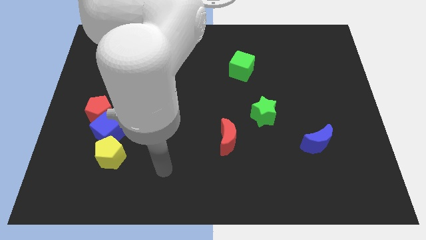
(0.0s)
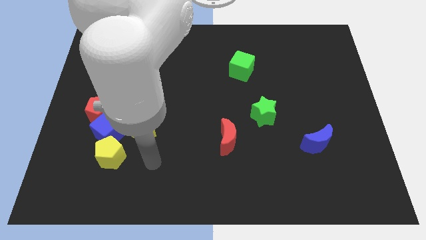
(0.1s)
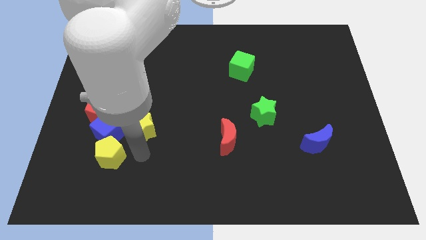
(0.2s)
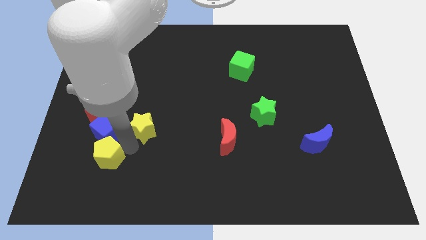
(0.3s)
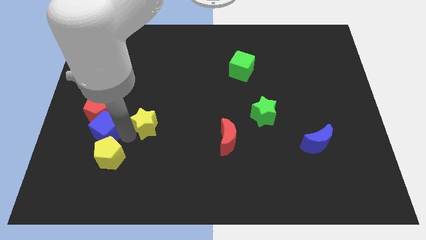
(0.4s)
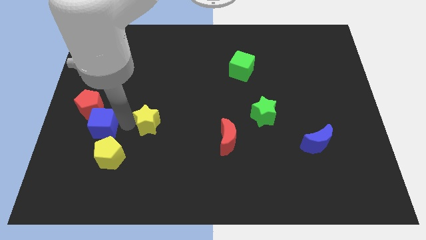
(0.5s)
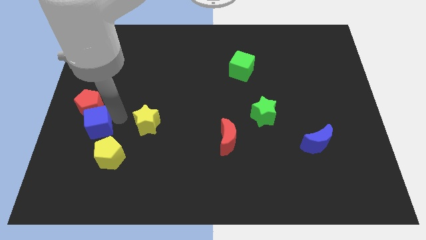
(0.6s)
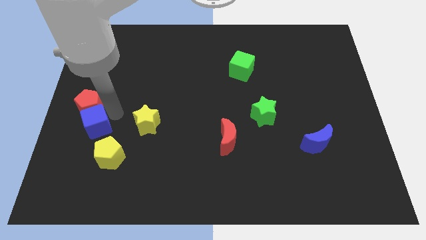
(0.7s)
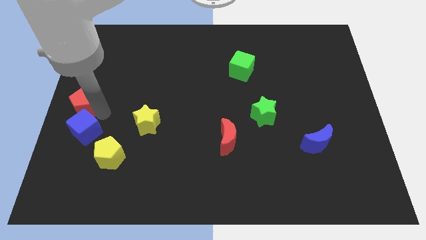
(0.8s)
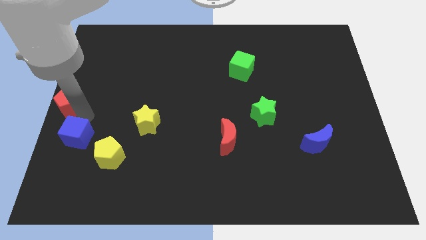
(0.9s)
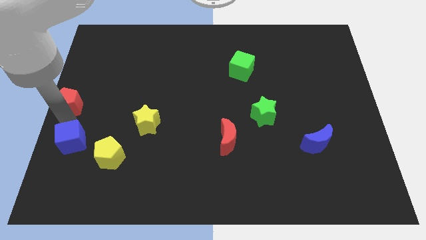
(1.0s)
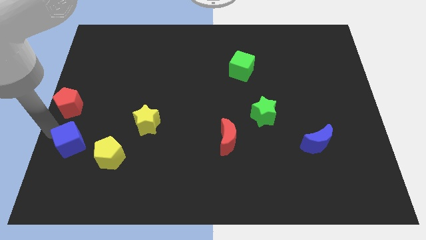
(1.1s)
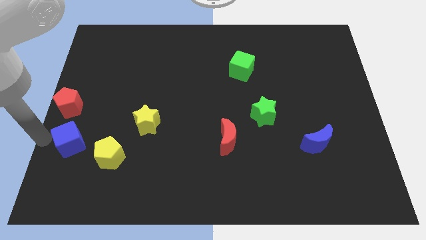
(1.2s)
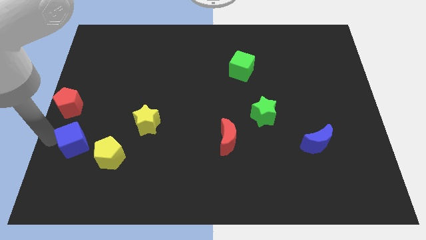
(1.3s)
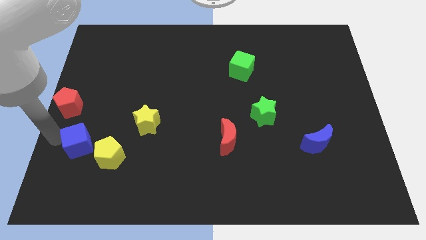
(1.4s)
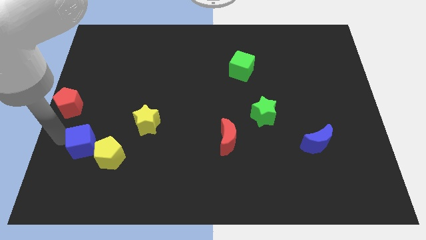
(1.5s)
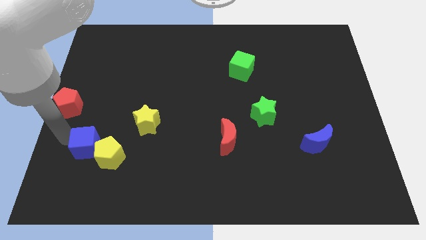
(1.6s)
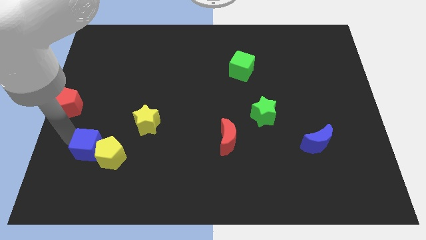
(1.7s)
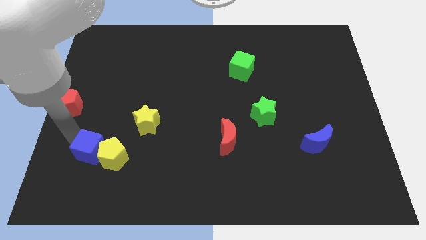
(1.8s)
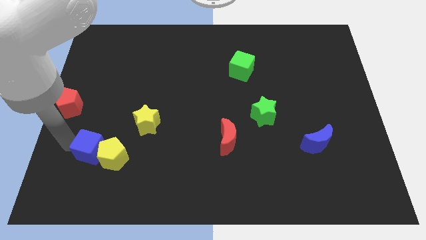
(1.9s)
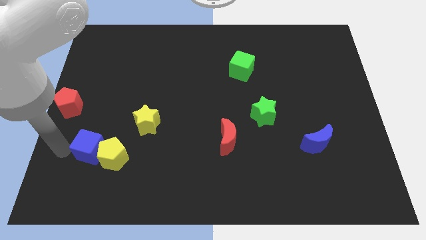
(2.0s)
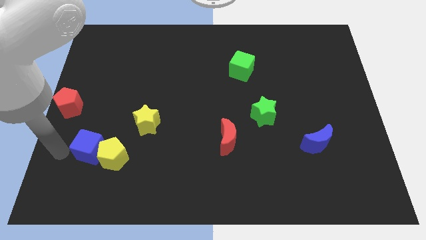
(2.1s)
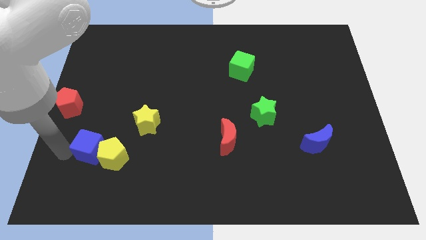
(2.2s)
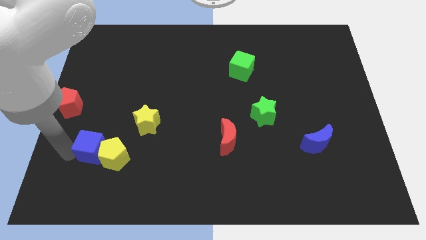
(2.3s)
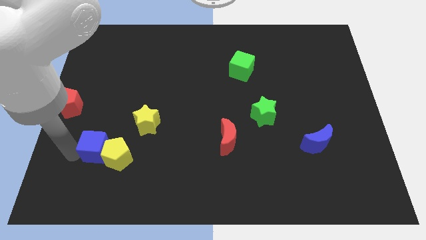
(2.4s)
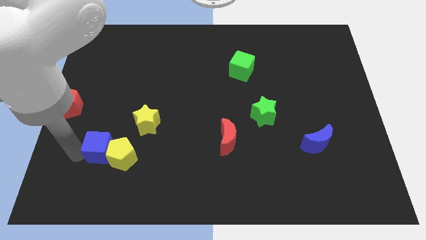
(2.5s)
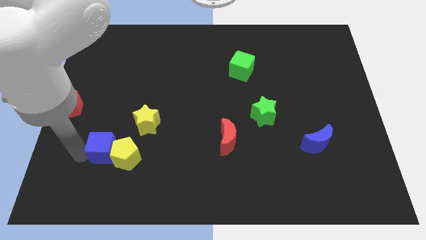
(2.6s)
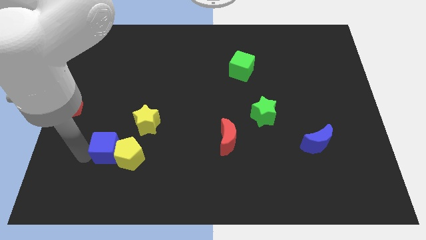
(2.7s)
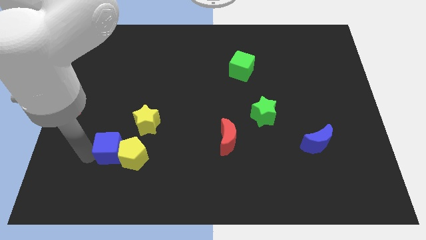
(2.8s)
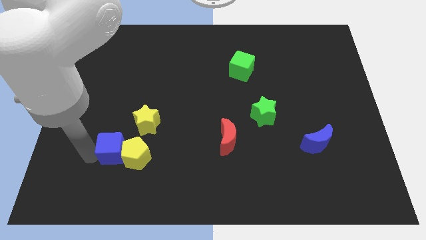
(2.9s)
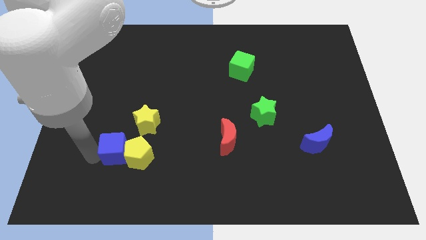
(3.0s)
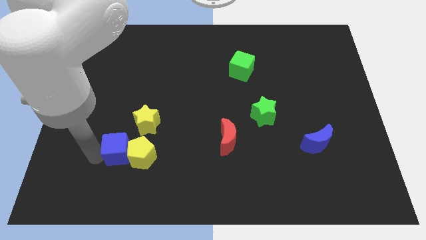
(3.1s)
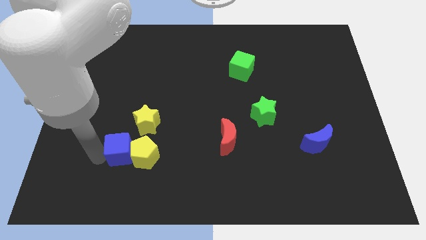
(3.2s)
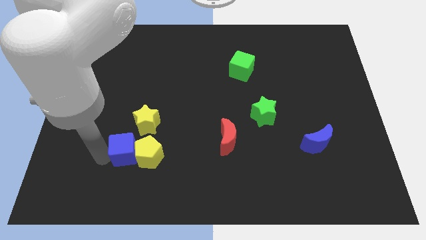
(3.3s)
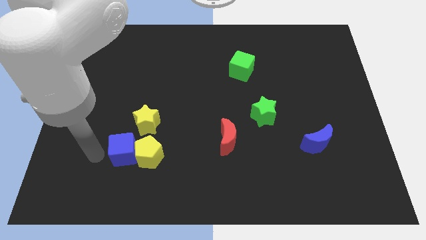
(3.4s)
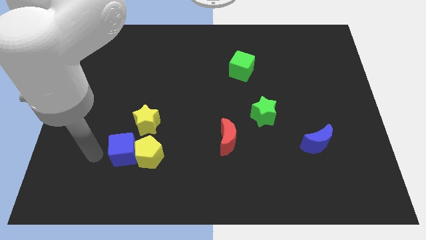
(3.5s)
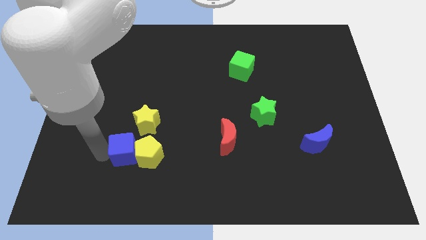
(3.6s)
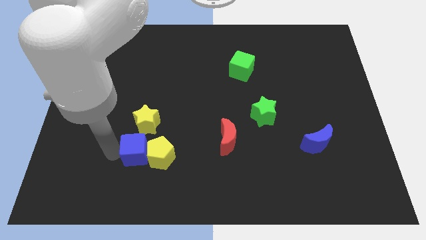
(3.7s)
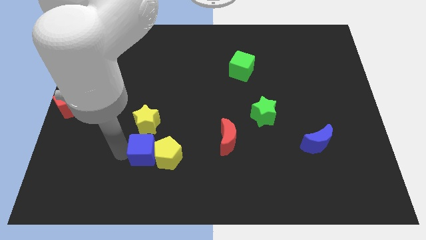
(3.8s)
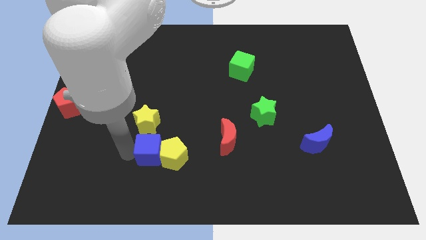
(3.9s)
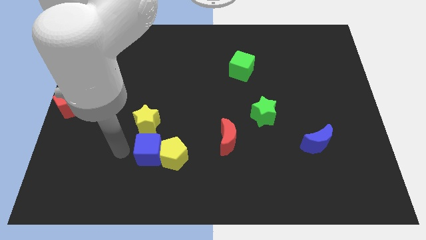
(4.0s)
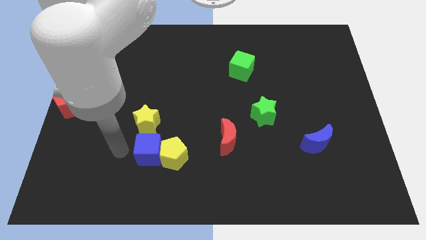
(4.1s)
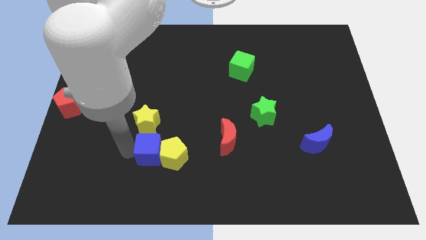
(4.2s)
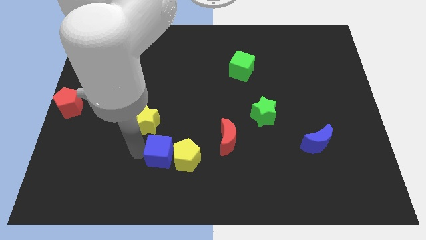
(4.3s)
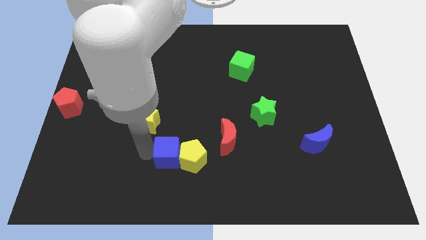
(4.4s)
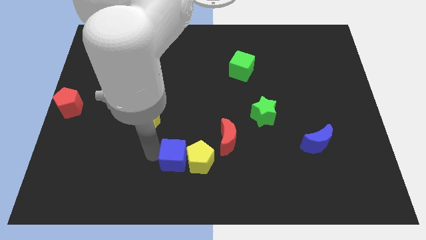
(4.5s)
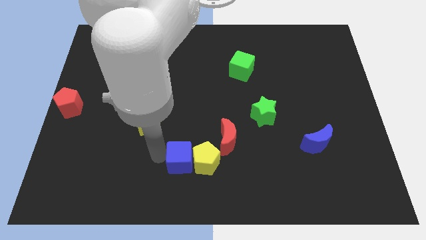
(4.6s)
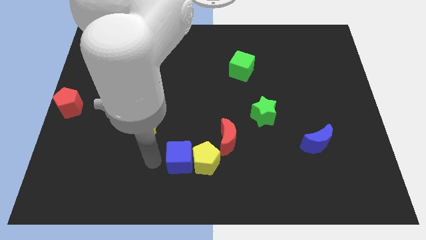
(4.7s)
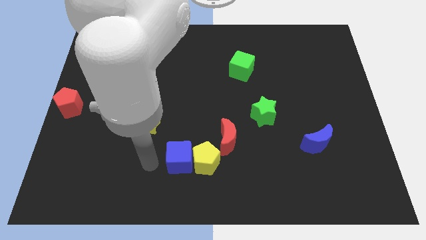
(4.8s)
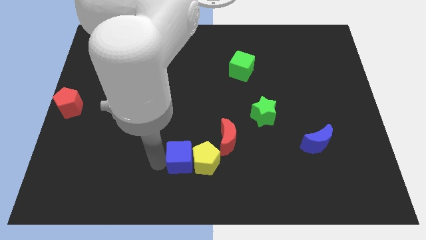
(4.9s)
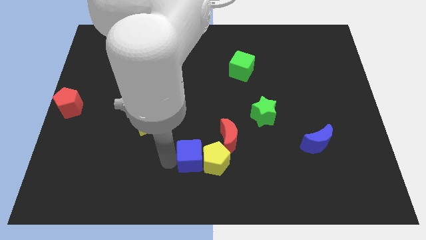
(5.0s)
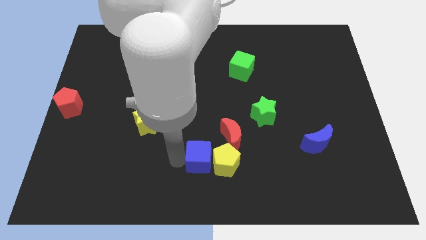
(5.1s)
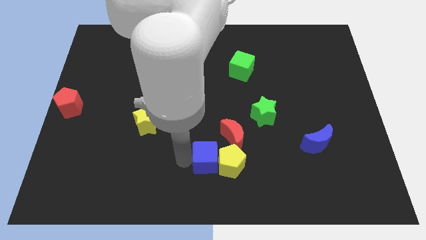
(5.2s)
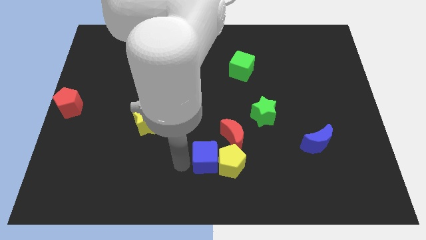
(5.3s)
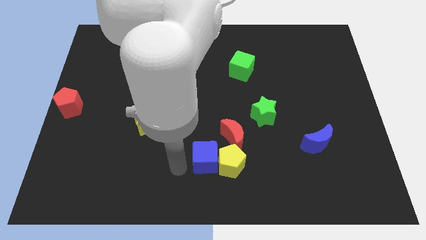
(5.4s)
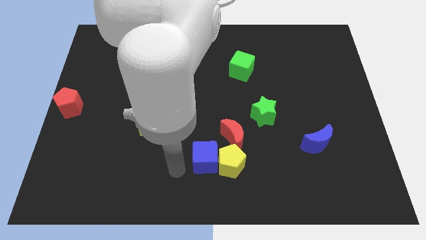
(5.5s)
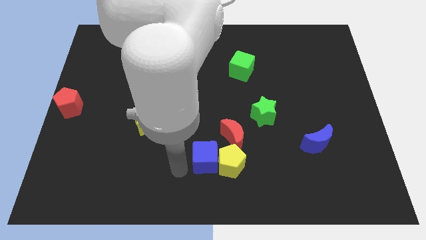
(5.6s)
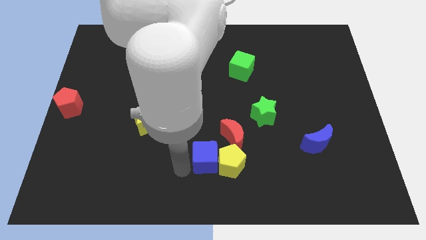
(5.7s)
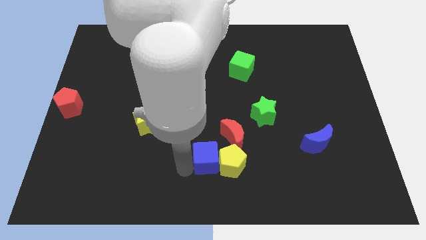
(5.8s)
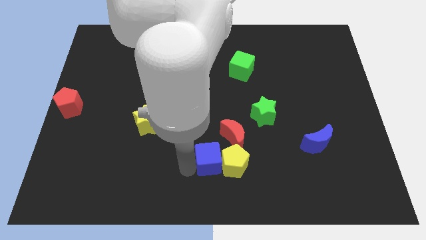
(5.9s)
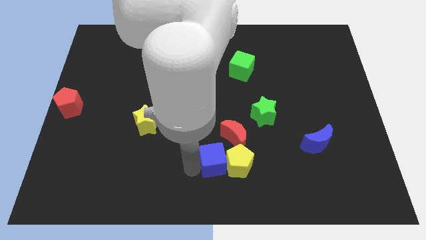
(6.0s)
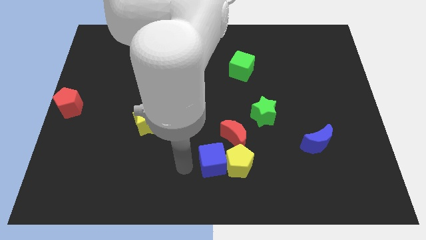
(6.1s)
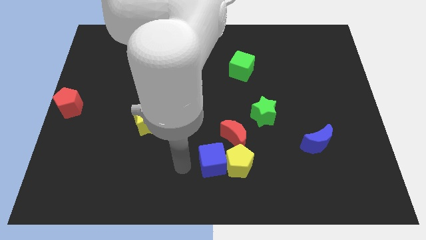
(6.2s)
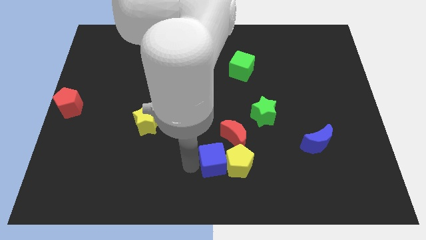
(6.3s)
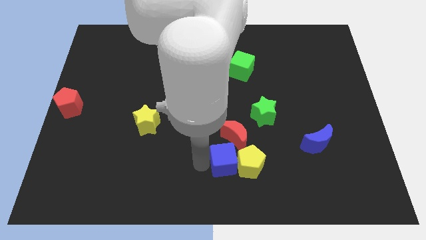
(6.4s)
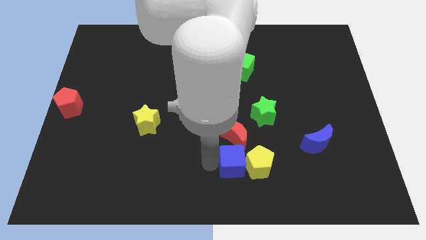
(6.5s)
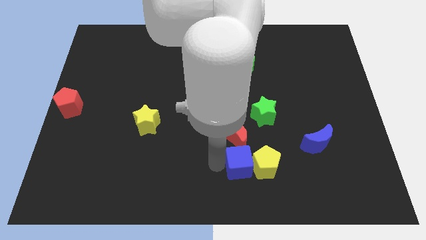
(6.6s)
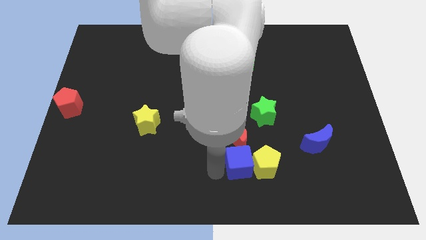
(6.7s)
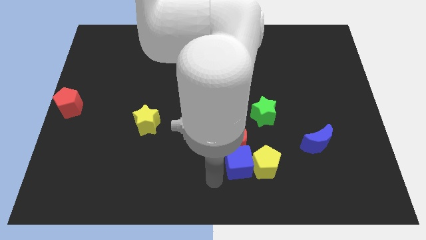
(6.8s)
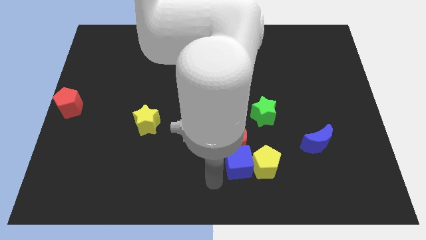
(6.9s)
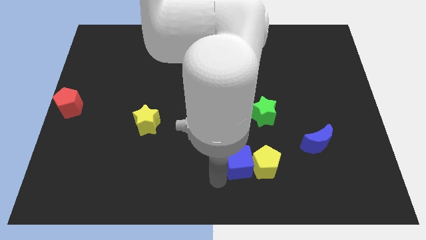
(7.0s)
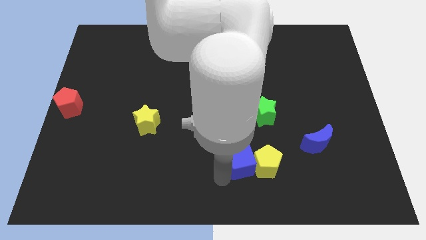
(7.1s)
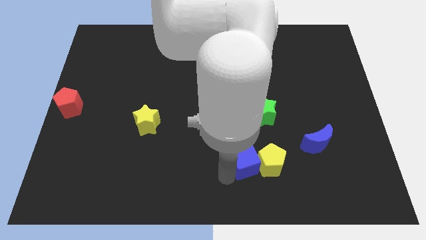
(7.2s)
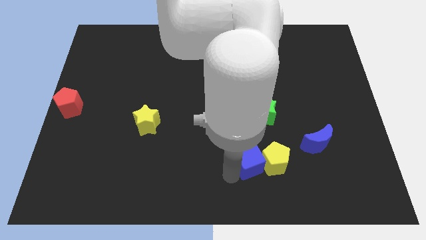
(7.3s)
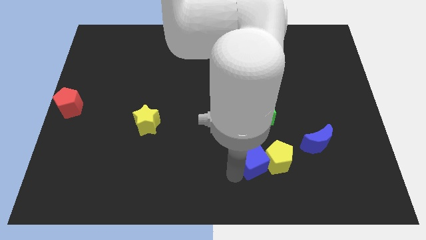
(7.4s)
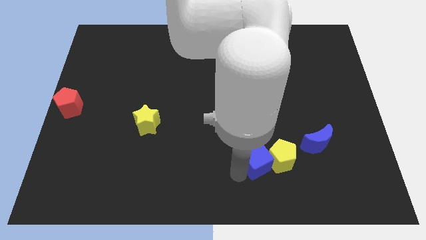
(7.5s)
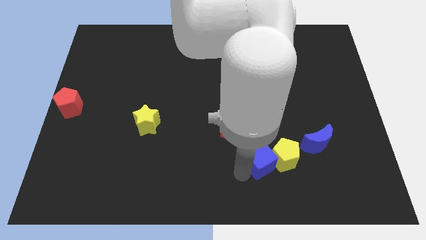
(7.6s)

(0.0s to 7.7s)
slide the blue cube to the left of the blue moon
